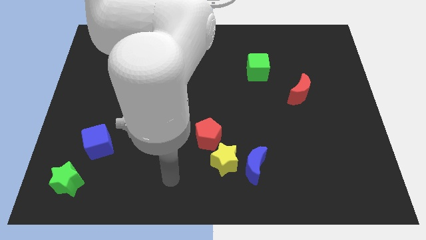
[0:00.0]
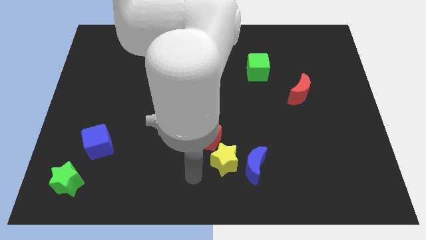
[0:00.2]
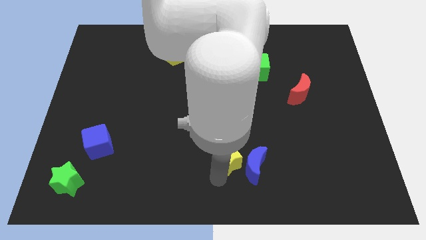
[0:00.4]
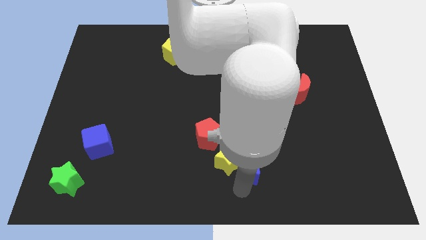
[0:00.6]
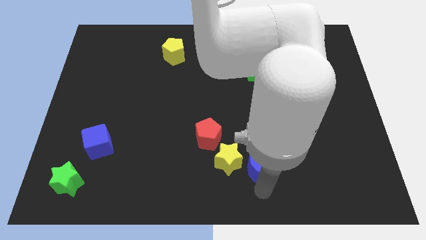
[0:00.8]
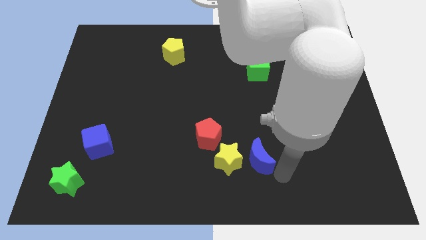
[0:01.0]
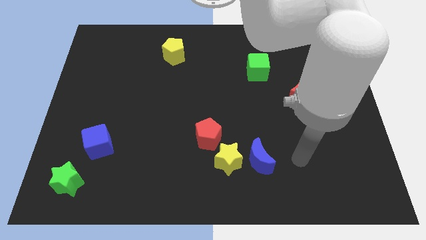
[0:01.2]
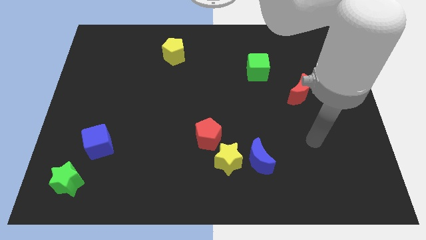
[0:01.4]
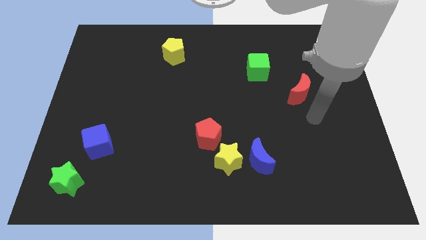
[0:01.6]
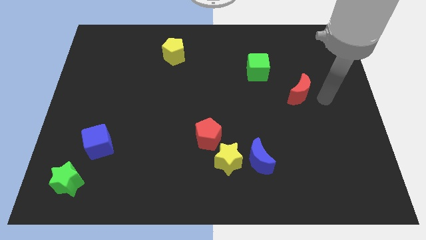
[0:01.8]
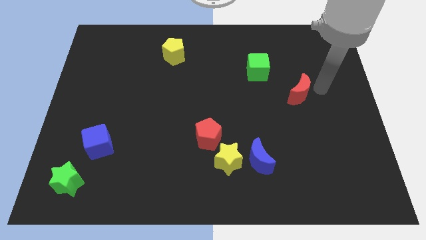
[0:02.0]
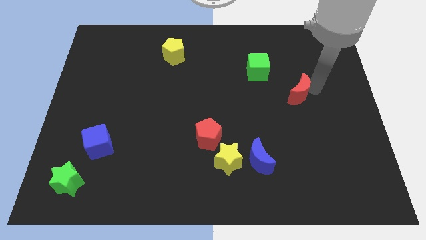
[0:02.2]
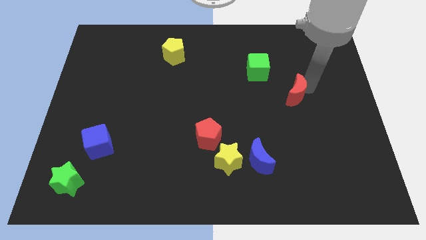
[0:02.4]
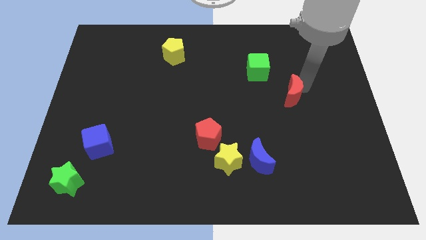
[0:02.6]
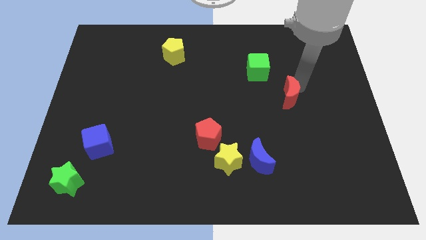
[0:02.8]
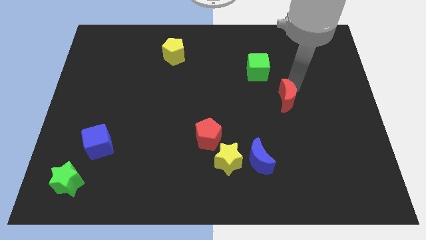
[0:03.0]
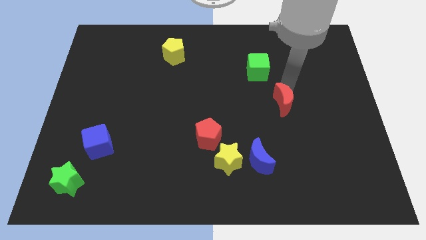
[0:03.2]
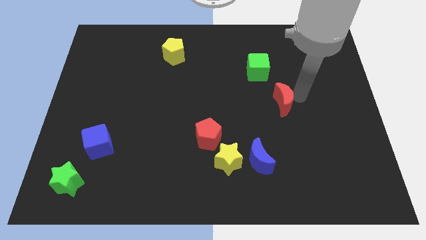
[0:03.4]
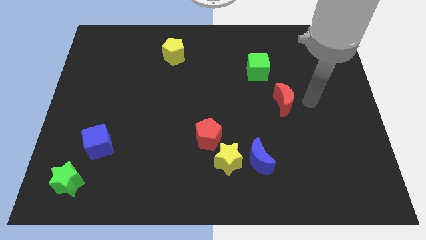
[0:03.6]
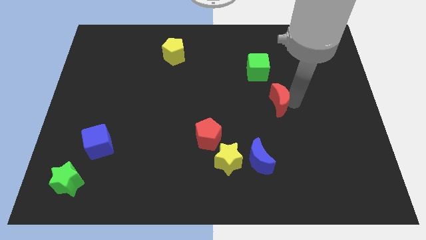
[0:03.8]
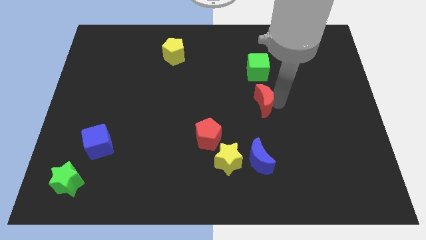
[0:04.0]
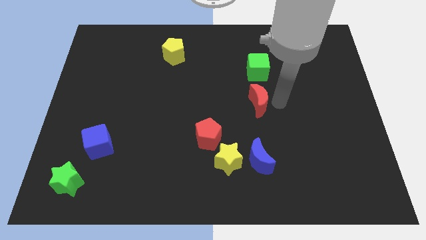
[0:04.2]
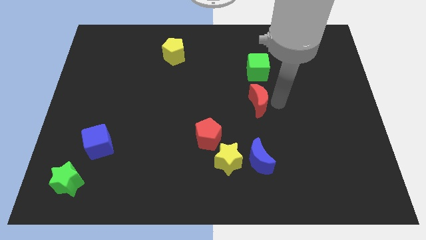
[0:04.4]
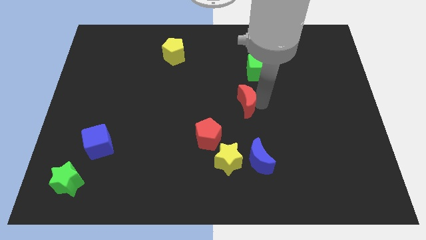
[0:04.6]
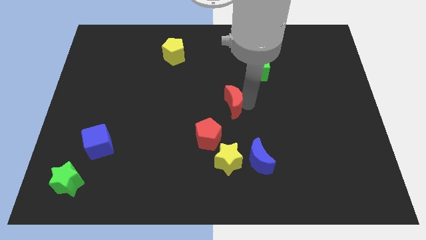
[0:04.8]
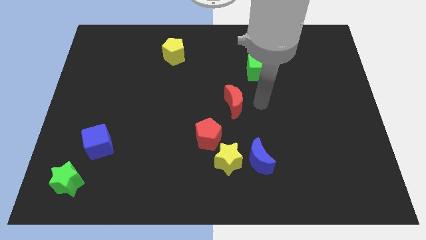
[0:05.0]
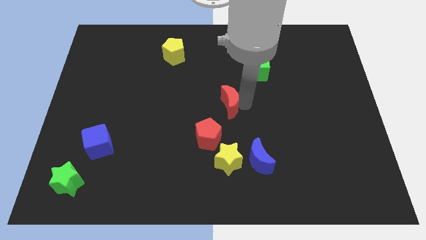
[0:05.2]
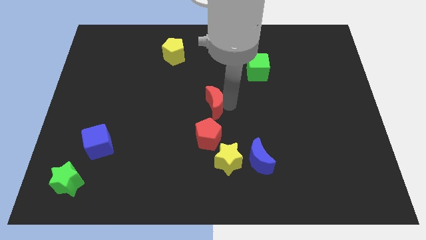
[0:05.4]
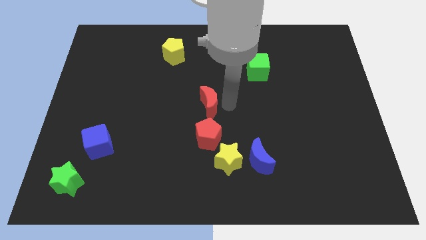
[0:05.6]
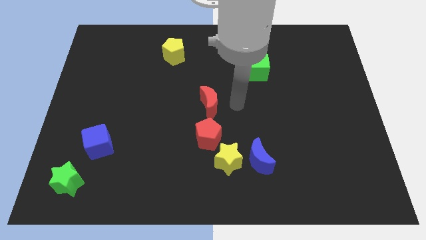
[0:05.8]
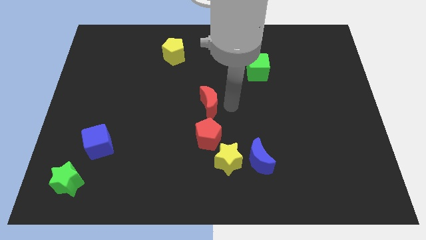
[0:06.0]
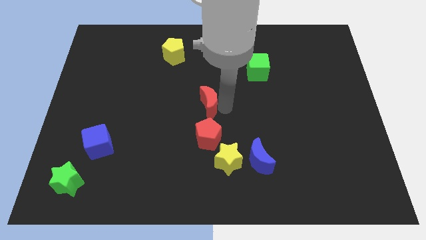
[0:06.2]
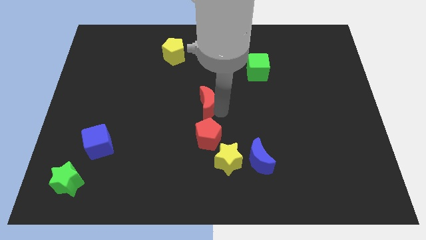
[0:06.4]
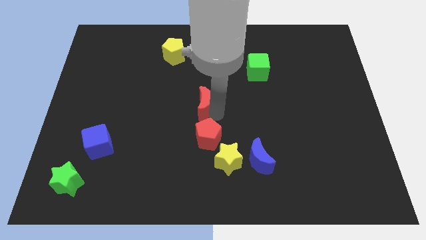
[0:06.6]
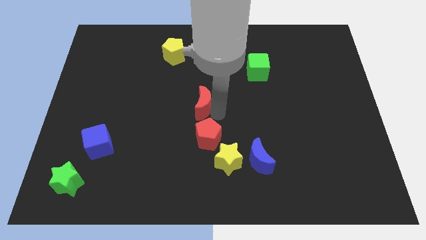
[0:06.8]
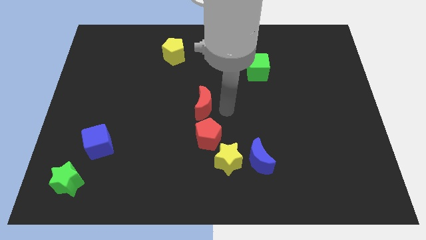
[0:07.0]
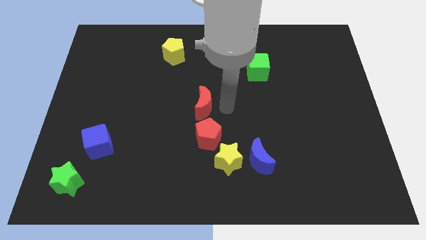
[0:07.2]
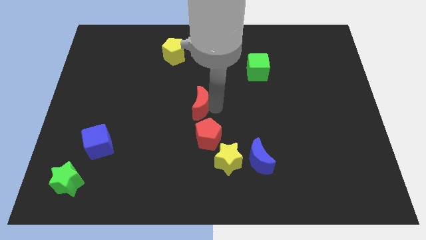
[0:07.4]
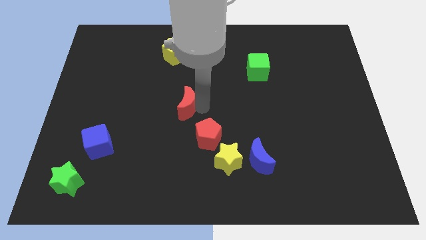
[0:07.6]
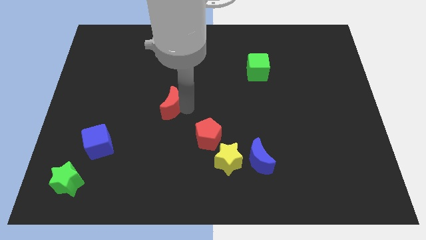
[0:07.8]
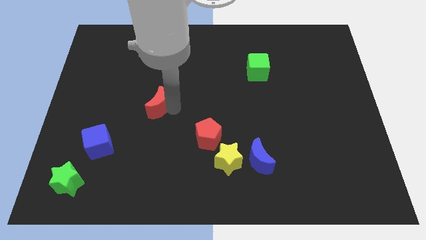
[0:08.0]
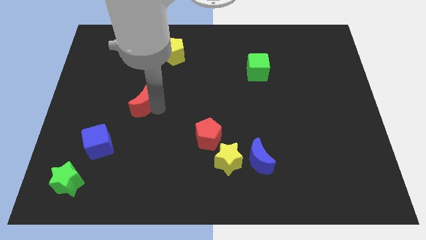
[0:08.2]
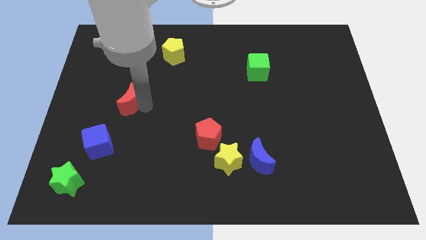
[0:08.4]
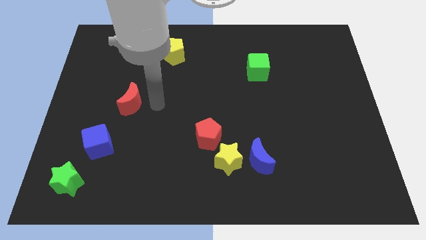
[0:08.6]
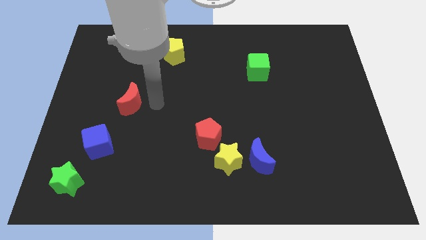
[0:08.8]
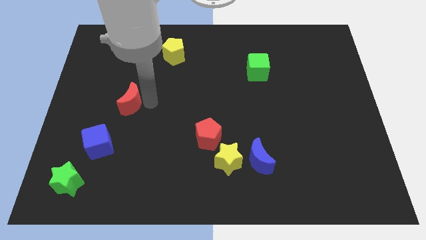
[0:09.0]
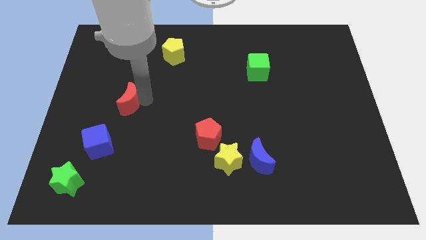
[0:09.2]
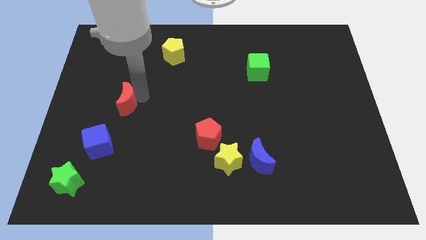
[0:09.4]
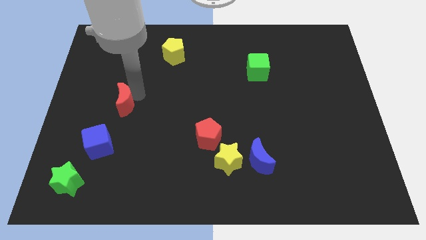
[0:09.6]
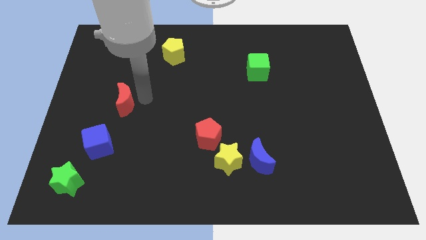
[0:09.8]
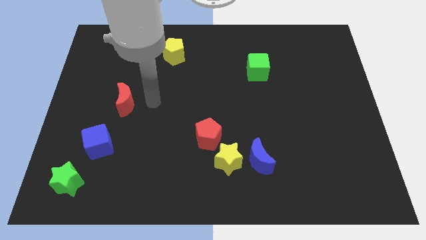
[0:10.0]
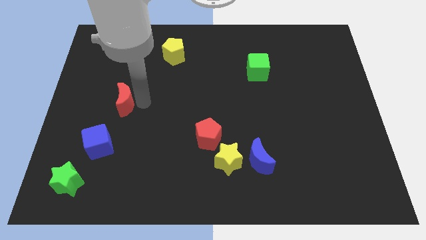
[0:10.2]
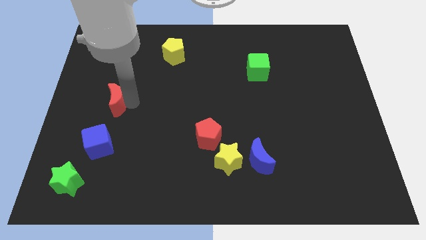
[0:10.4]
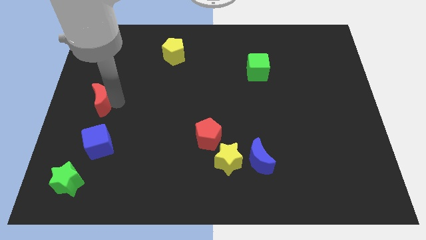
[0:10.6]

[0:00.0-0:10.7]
slide the red moon to the left side of the board

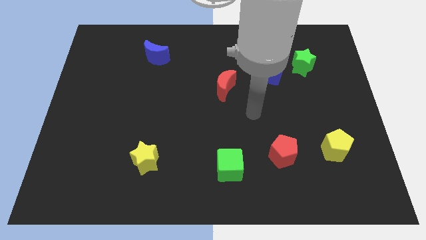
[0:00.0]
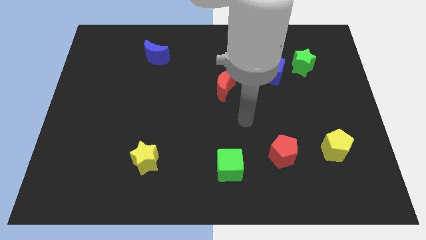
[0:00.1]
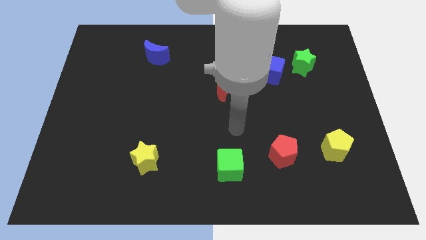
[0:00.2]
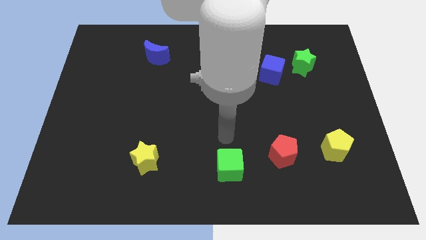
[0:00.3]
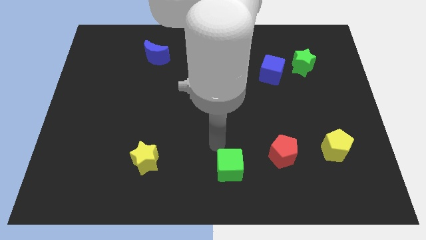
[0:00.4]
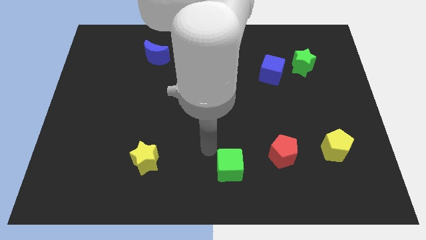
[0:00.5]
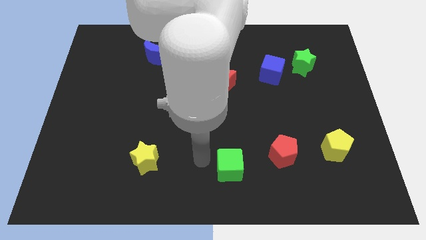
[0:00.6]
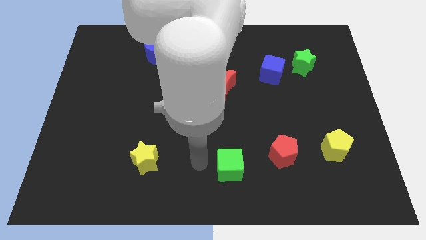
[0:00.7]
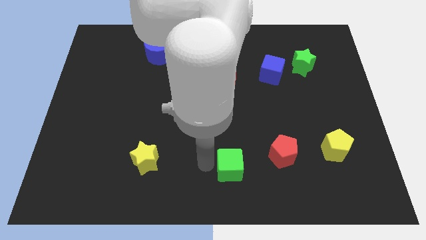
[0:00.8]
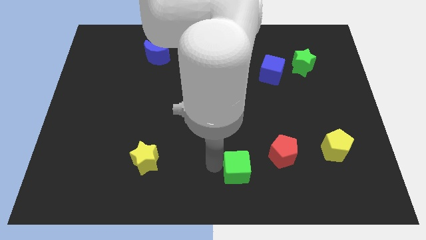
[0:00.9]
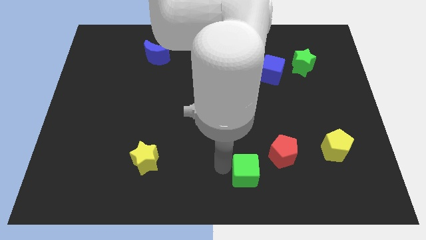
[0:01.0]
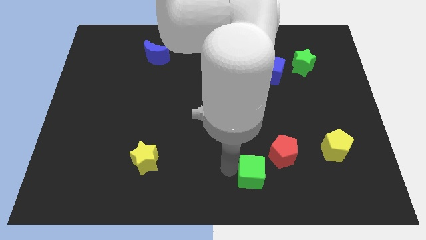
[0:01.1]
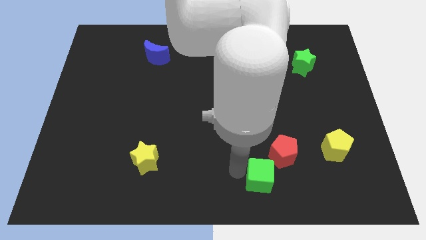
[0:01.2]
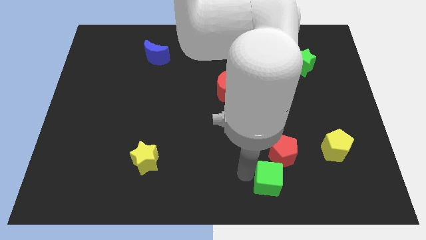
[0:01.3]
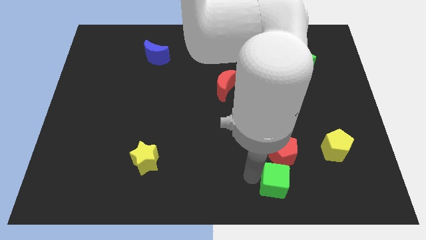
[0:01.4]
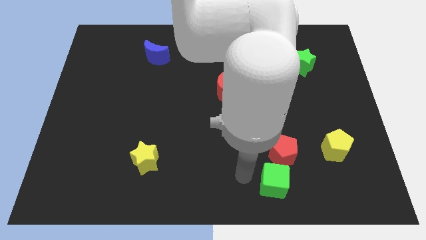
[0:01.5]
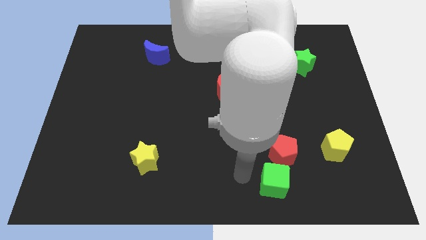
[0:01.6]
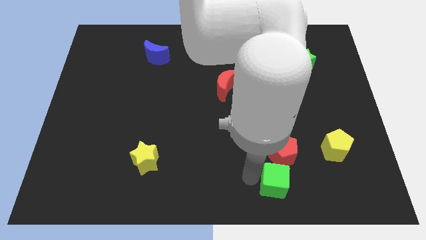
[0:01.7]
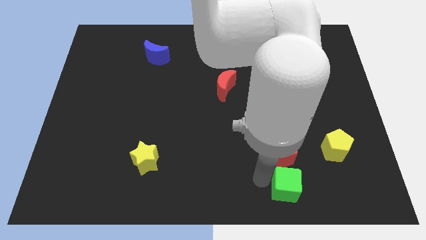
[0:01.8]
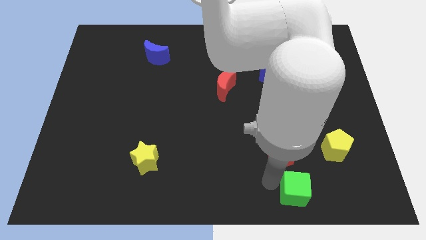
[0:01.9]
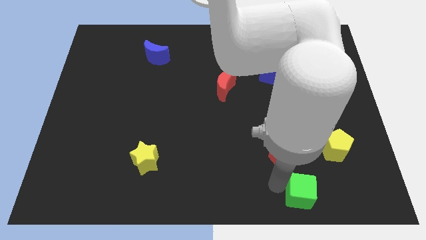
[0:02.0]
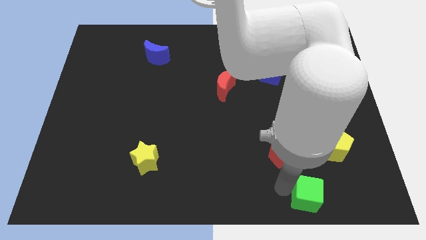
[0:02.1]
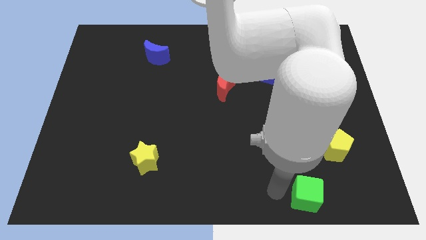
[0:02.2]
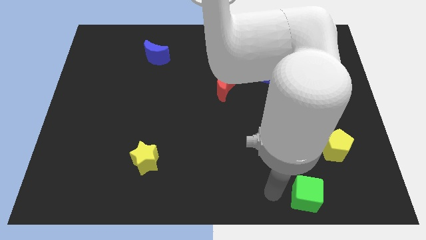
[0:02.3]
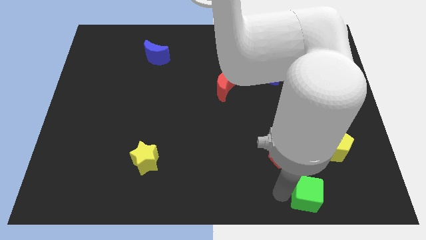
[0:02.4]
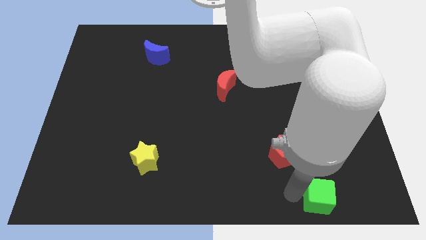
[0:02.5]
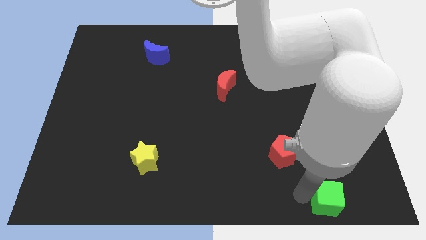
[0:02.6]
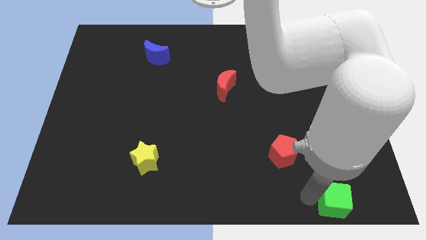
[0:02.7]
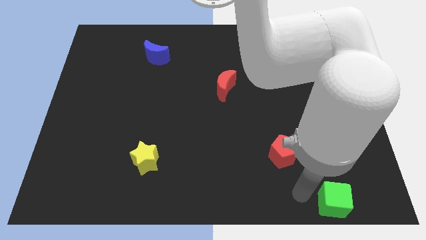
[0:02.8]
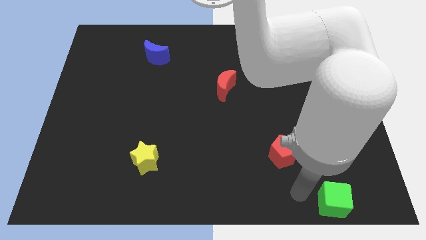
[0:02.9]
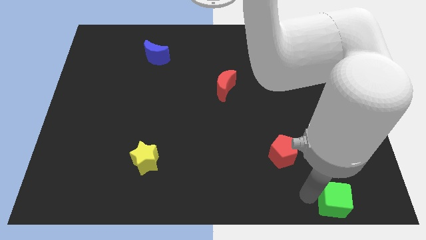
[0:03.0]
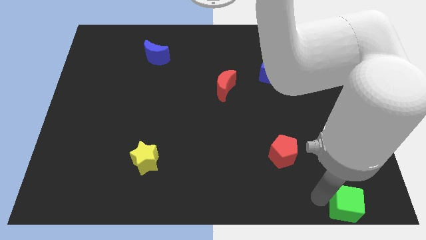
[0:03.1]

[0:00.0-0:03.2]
slide the green cube to the bottom right corner
